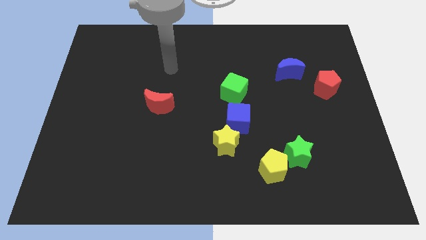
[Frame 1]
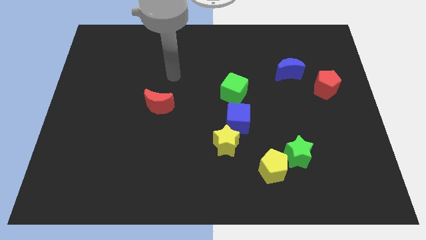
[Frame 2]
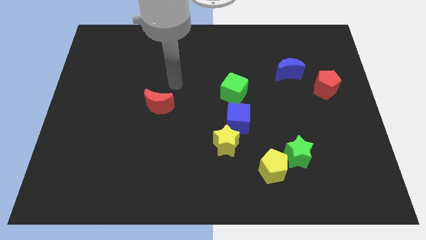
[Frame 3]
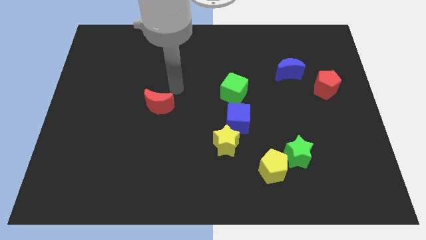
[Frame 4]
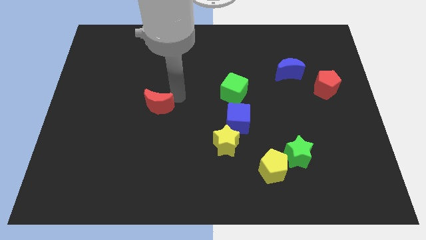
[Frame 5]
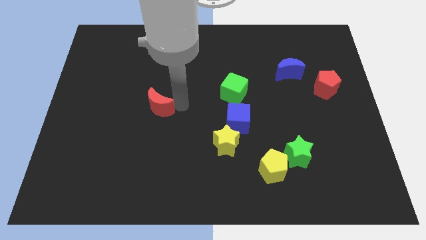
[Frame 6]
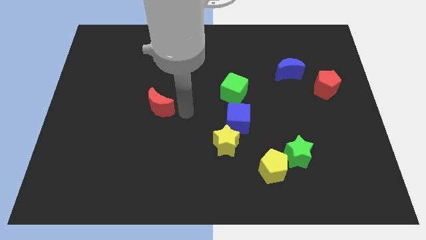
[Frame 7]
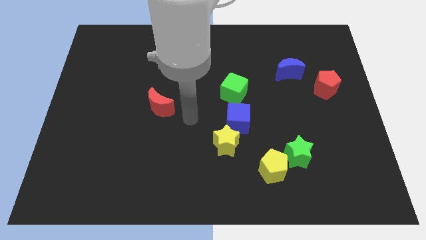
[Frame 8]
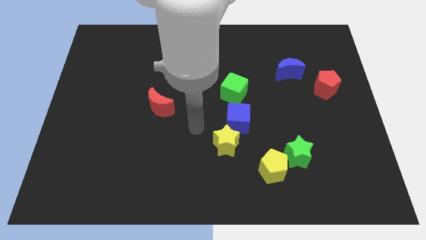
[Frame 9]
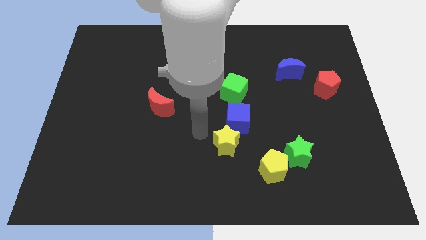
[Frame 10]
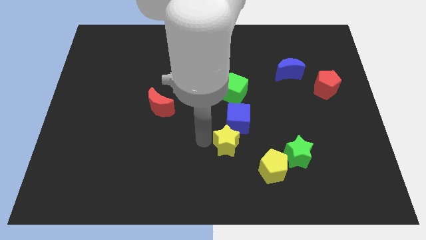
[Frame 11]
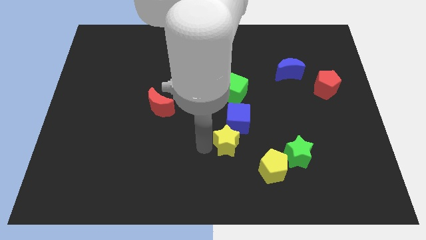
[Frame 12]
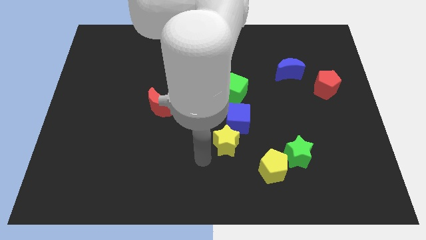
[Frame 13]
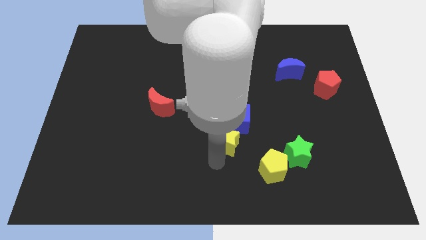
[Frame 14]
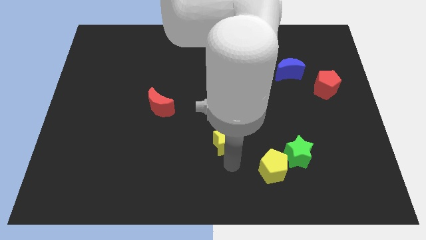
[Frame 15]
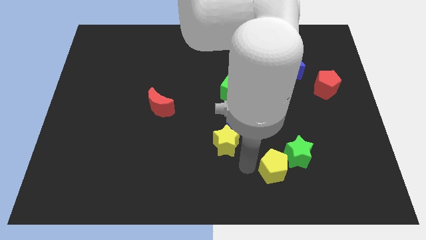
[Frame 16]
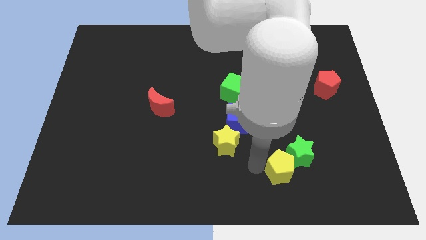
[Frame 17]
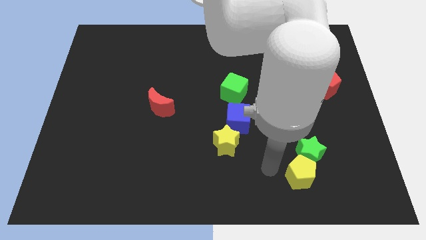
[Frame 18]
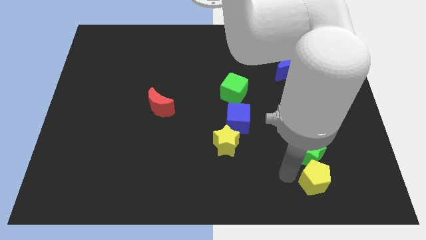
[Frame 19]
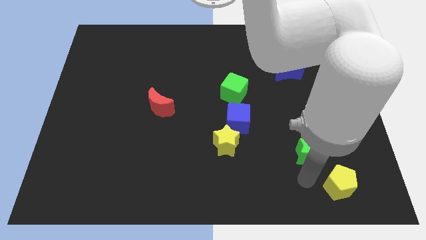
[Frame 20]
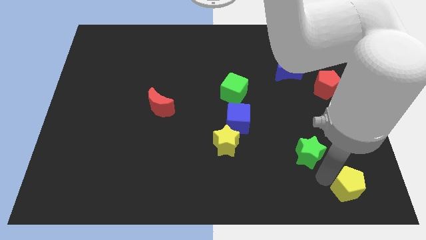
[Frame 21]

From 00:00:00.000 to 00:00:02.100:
move the green star away from the yellow pentagon

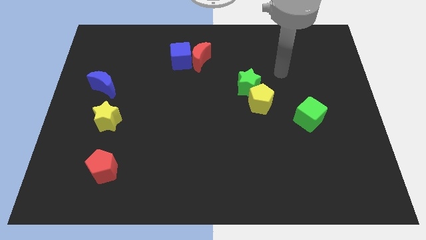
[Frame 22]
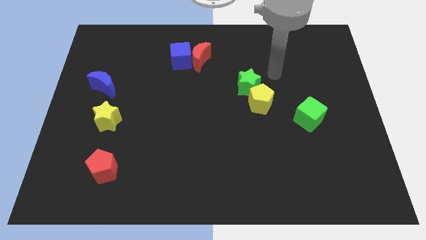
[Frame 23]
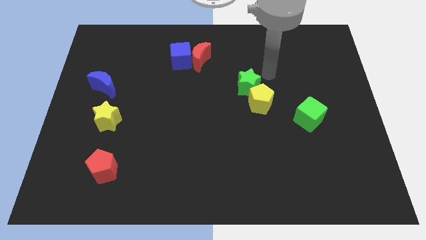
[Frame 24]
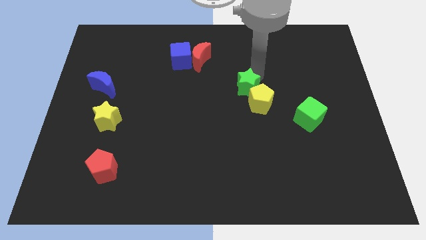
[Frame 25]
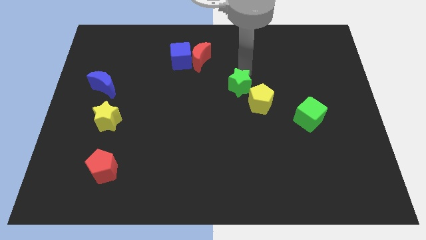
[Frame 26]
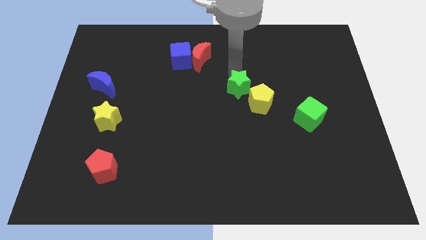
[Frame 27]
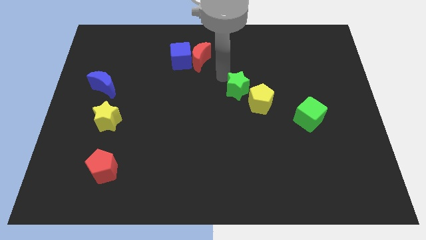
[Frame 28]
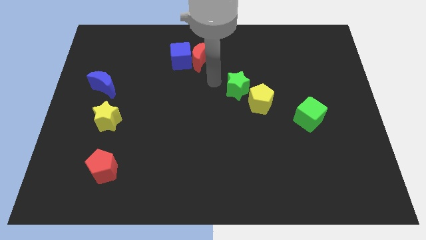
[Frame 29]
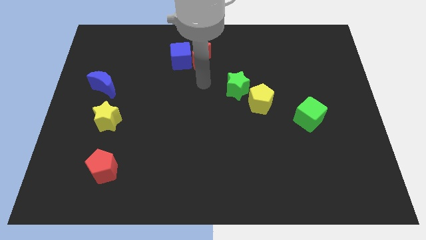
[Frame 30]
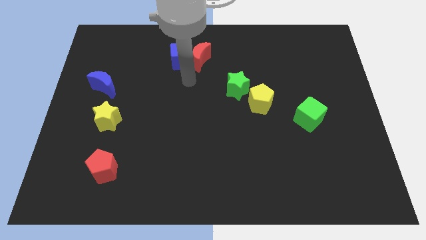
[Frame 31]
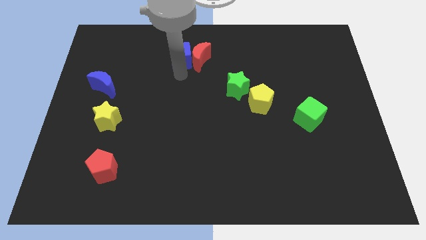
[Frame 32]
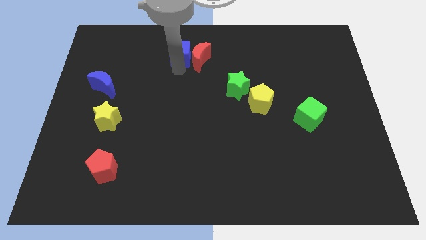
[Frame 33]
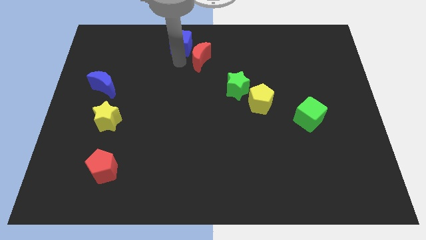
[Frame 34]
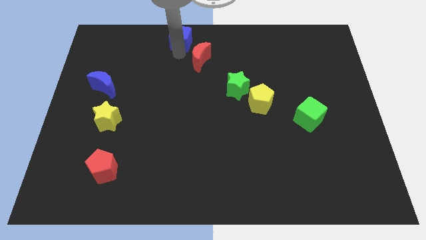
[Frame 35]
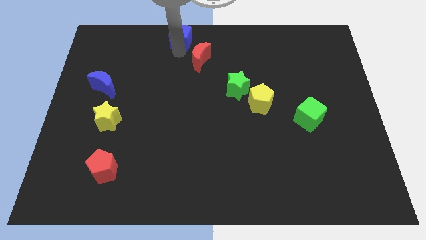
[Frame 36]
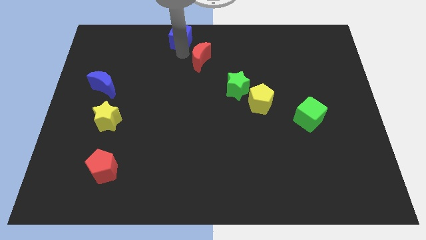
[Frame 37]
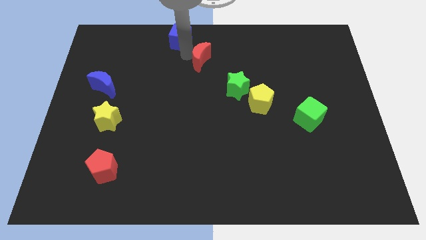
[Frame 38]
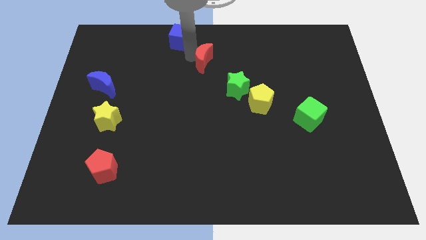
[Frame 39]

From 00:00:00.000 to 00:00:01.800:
separate the red moon from the blue cube

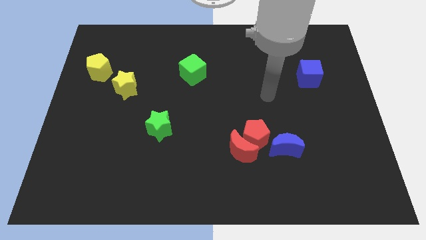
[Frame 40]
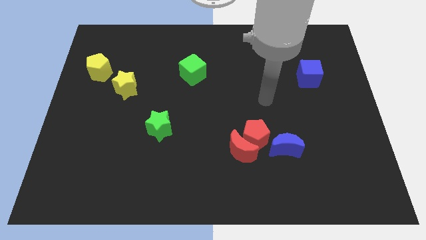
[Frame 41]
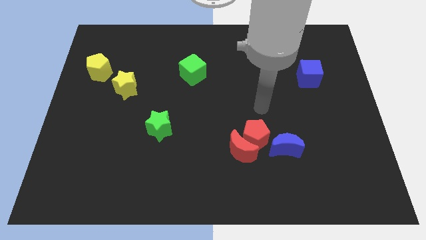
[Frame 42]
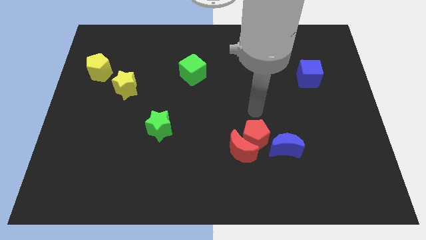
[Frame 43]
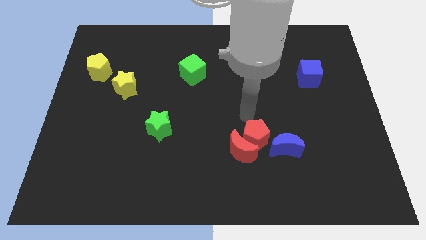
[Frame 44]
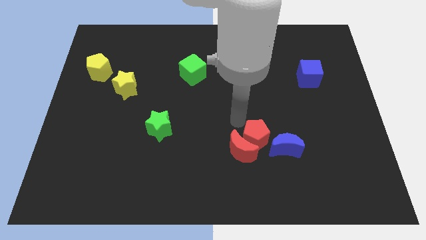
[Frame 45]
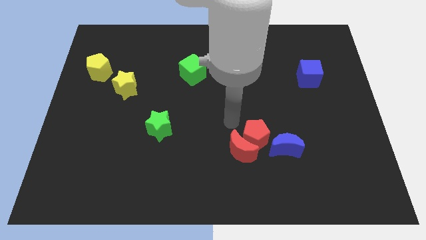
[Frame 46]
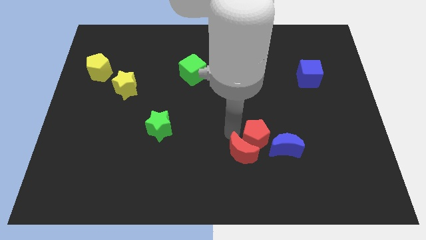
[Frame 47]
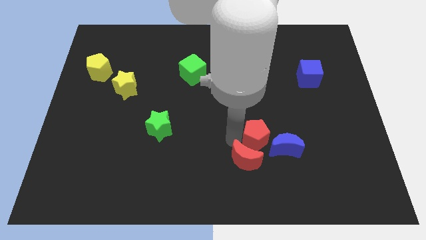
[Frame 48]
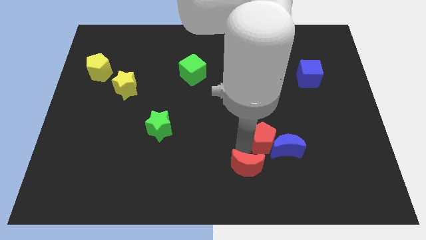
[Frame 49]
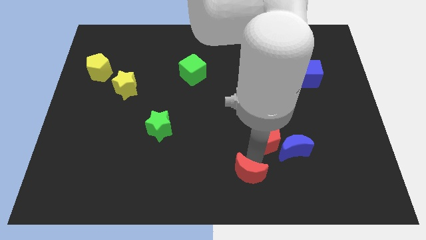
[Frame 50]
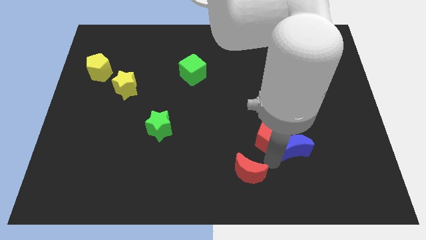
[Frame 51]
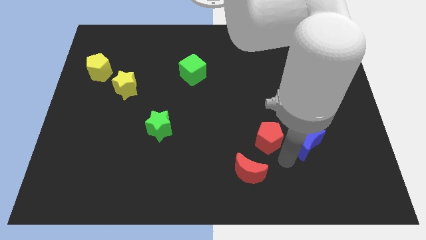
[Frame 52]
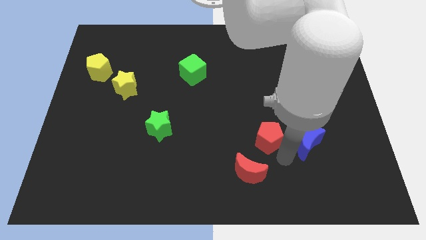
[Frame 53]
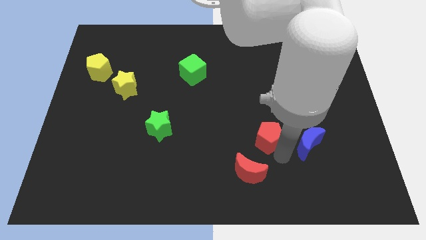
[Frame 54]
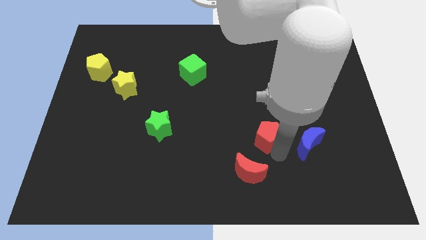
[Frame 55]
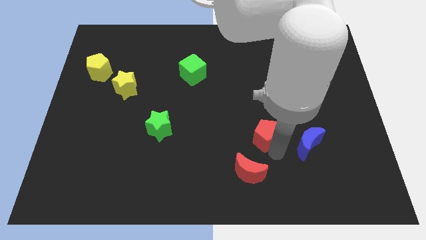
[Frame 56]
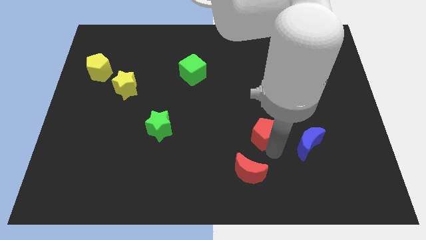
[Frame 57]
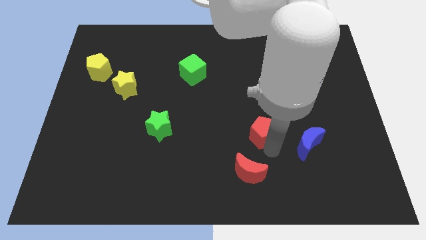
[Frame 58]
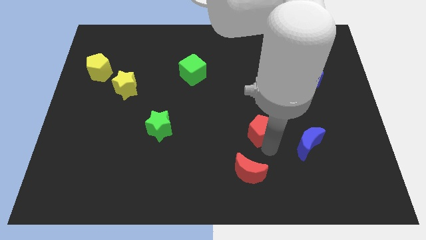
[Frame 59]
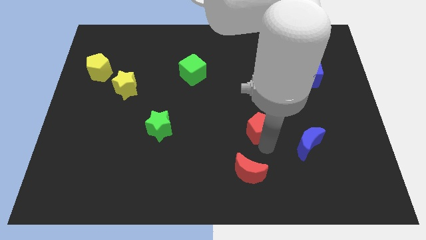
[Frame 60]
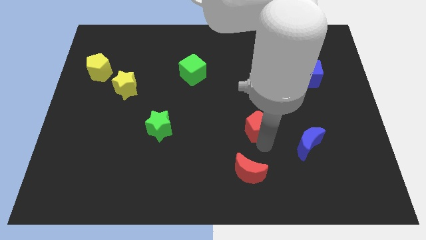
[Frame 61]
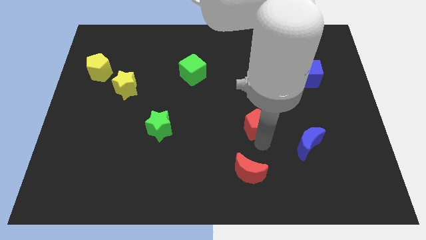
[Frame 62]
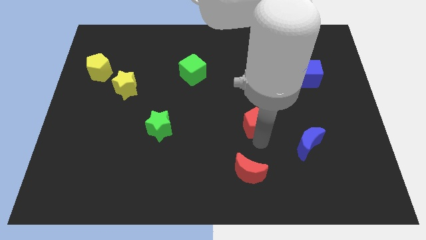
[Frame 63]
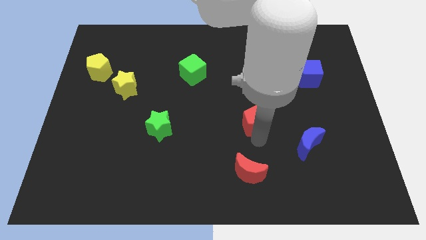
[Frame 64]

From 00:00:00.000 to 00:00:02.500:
pull the red pentagon apart from the red moon and blue moon

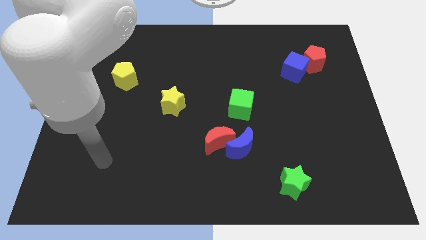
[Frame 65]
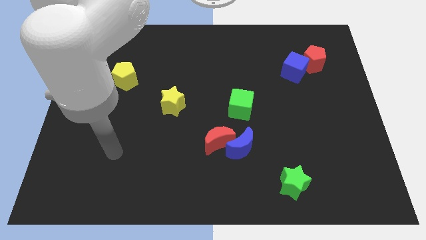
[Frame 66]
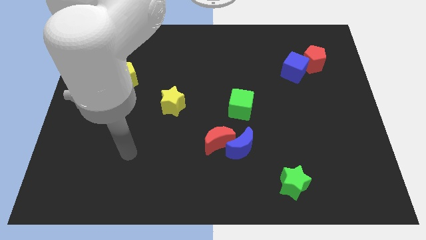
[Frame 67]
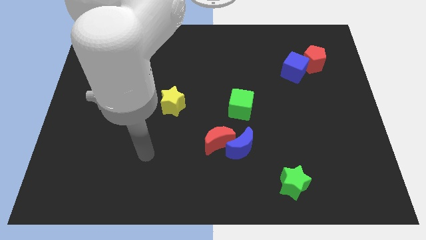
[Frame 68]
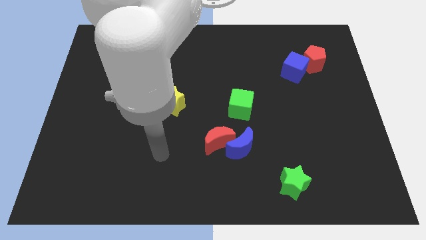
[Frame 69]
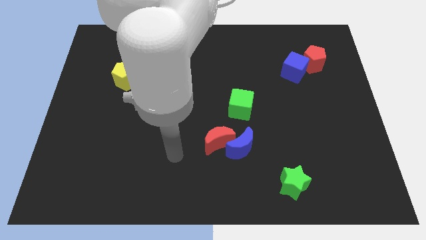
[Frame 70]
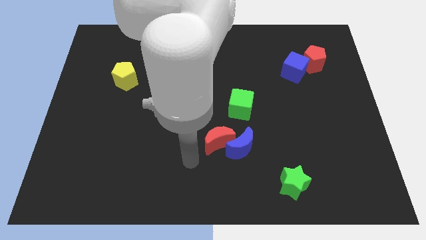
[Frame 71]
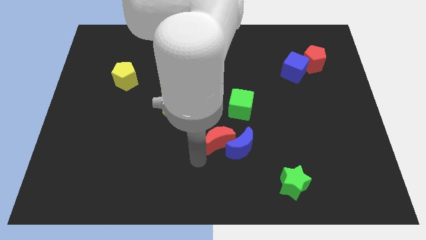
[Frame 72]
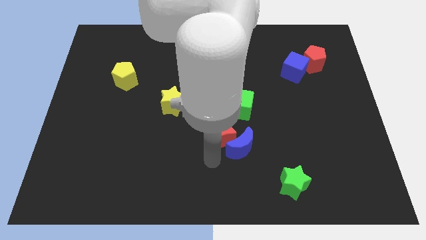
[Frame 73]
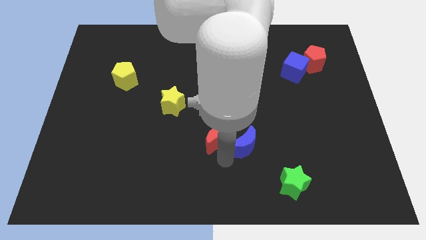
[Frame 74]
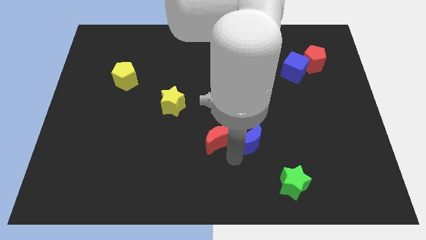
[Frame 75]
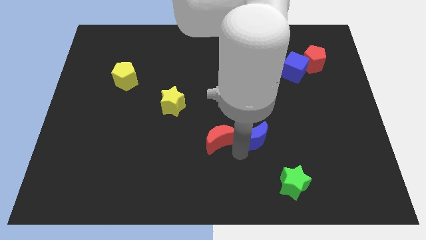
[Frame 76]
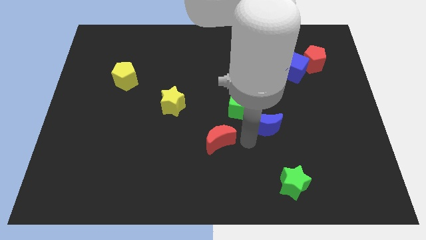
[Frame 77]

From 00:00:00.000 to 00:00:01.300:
pull the red moon apart from the blue moon

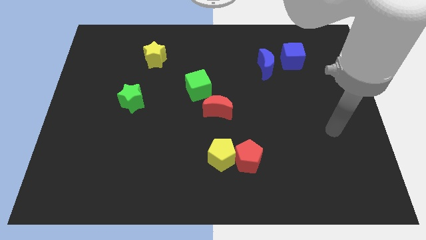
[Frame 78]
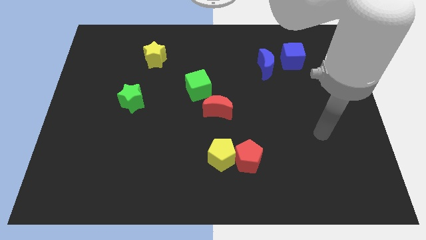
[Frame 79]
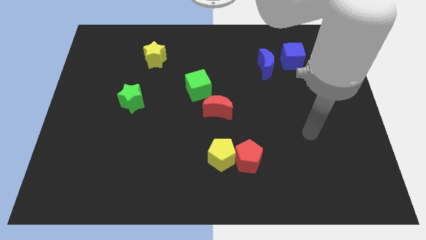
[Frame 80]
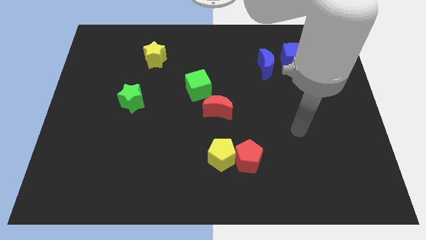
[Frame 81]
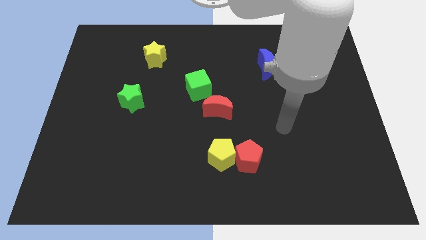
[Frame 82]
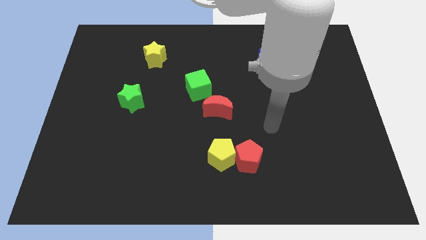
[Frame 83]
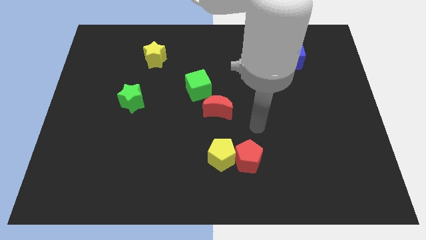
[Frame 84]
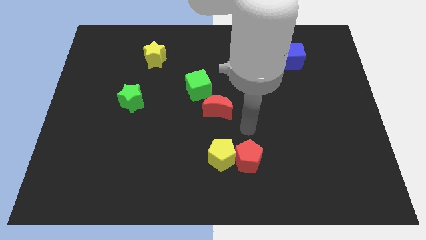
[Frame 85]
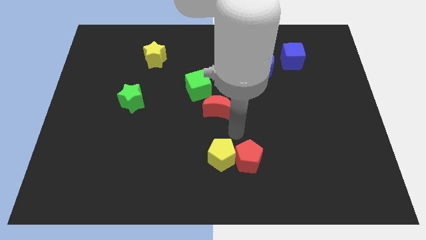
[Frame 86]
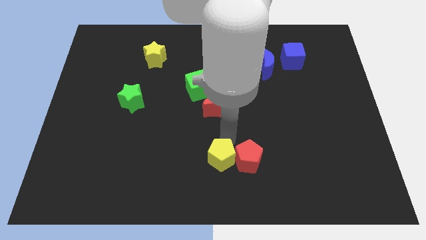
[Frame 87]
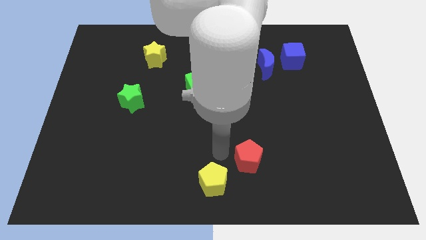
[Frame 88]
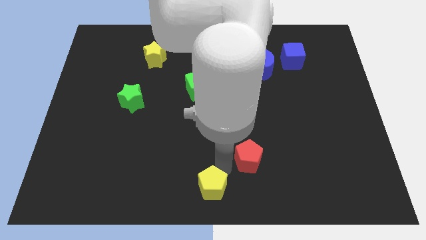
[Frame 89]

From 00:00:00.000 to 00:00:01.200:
pull the red pentagon apart from the yellow pentagon

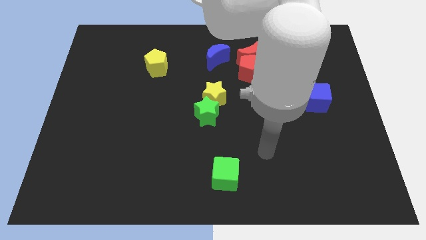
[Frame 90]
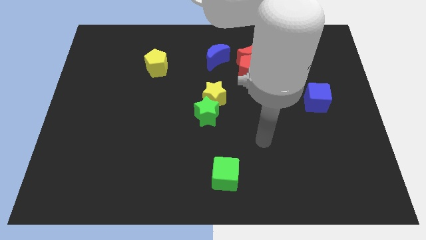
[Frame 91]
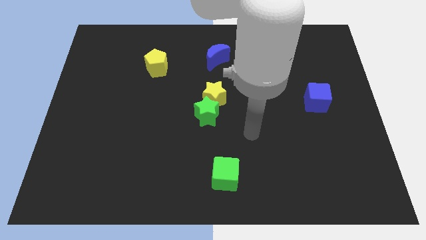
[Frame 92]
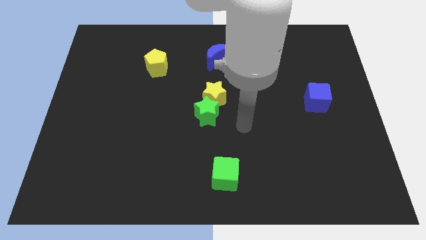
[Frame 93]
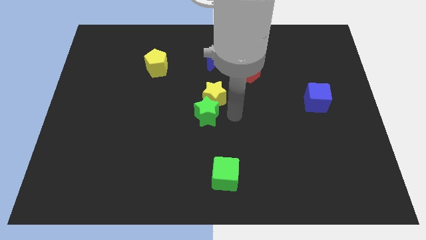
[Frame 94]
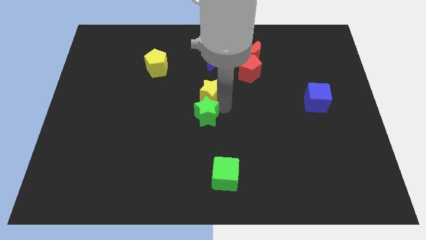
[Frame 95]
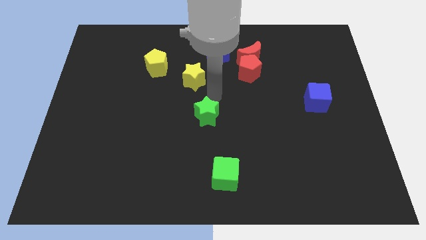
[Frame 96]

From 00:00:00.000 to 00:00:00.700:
pull the green star apart from the yellow star
